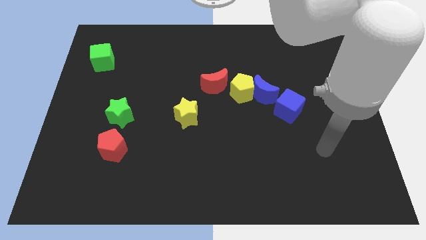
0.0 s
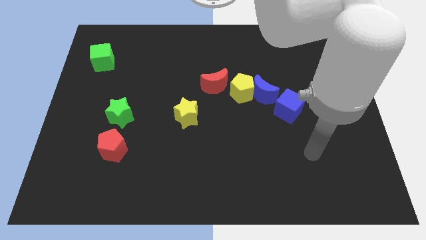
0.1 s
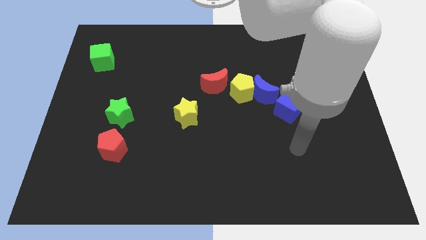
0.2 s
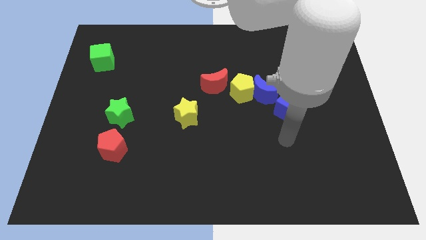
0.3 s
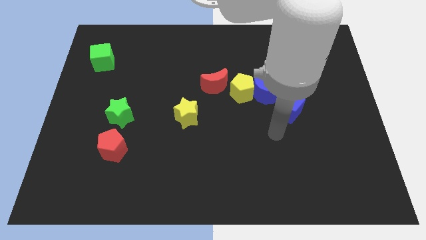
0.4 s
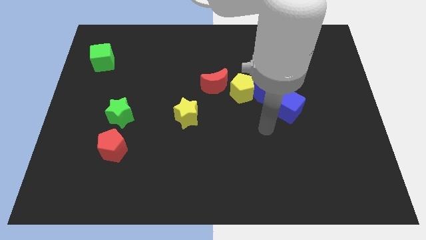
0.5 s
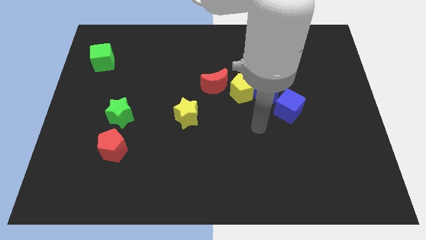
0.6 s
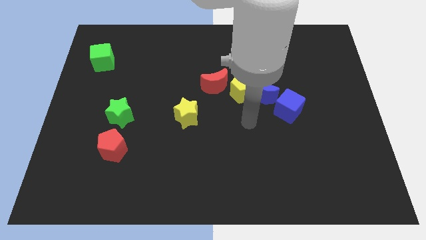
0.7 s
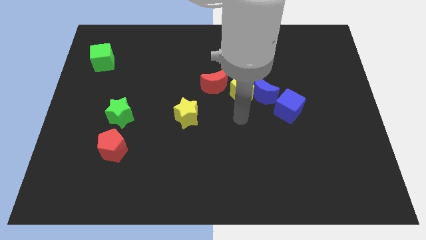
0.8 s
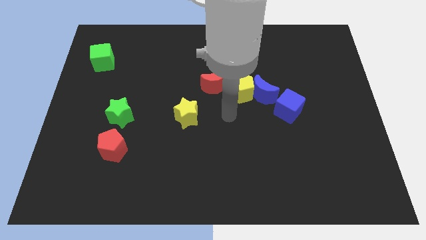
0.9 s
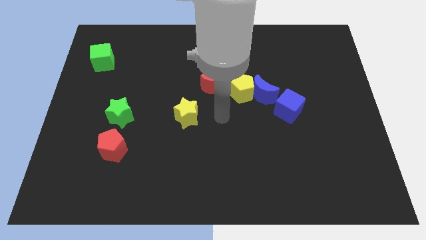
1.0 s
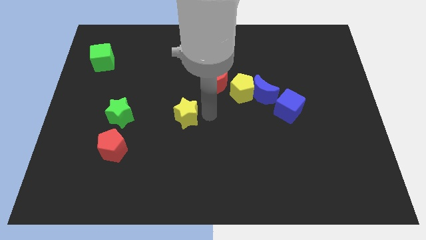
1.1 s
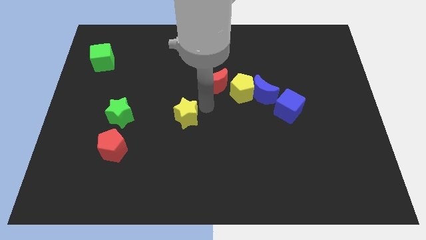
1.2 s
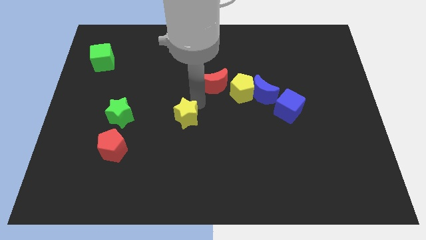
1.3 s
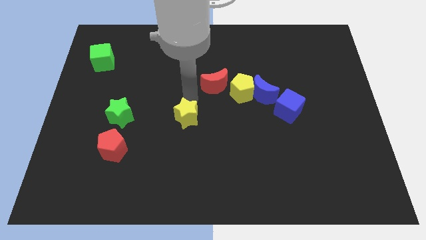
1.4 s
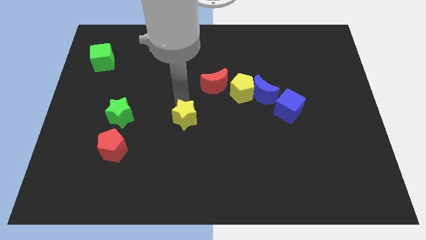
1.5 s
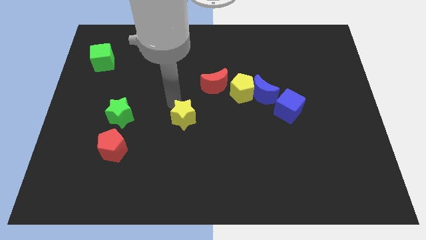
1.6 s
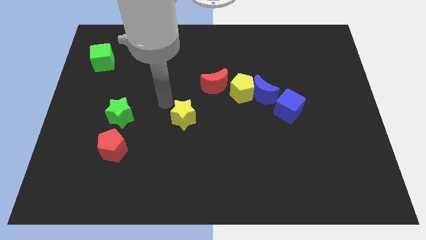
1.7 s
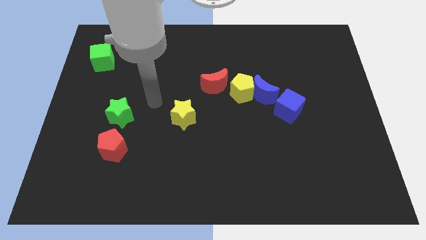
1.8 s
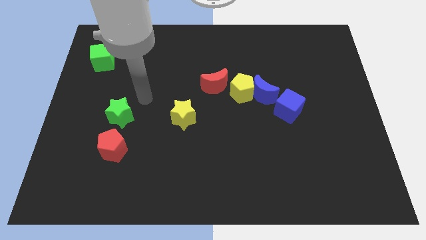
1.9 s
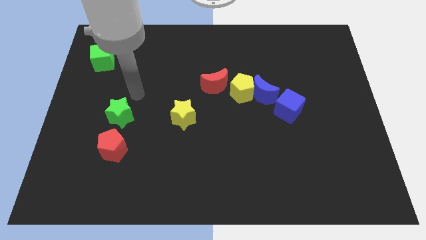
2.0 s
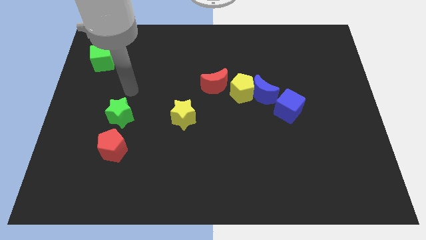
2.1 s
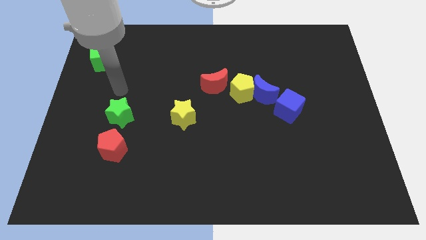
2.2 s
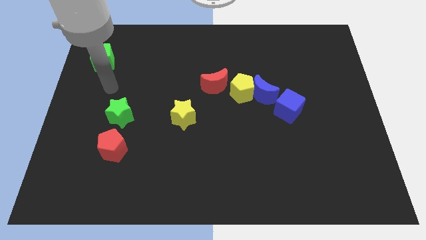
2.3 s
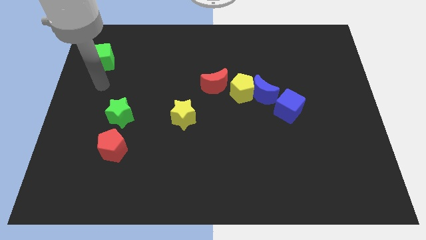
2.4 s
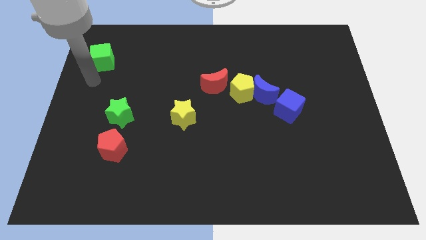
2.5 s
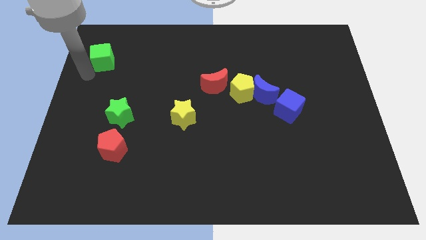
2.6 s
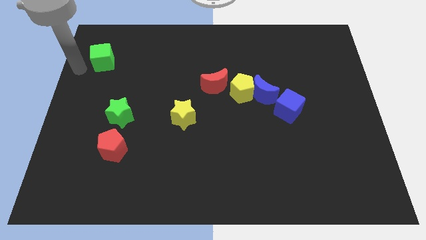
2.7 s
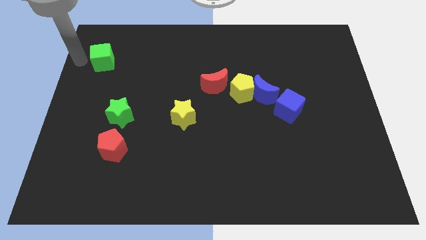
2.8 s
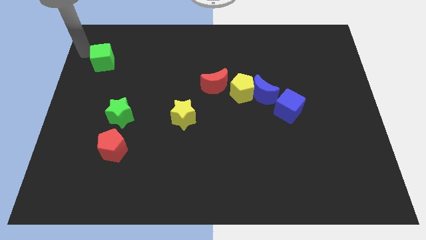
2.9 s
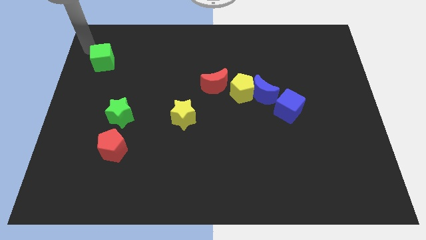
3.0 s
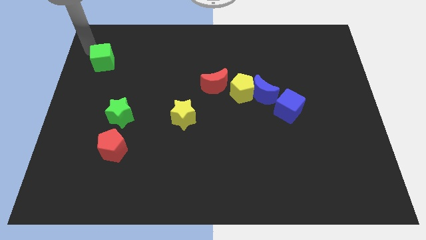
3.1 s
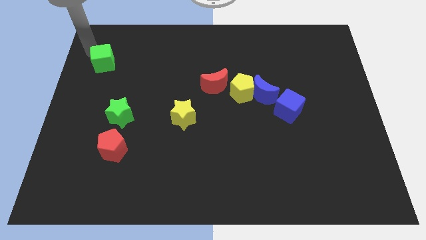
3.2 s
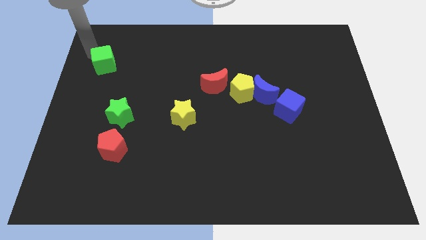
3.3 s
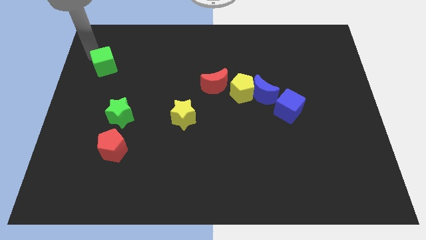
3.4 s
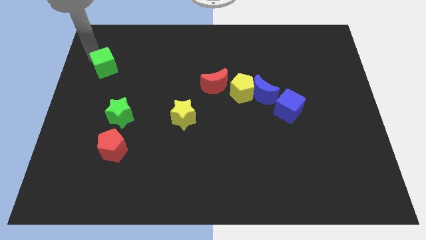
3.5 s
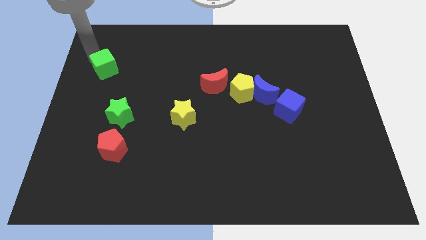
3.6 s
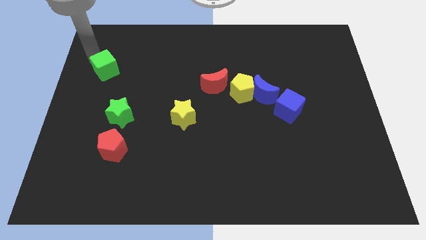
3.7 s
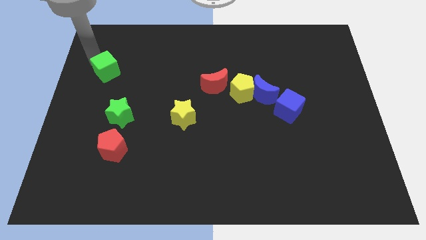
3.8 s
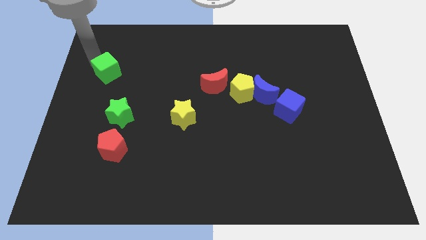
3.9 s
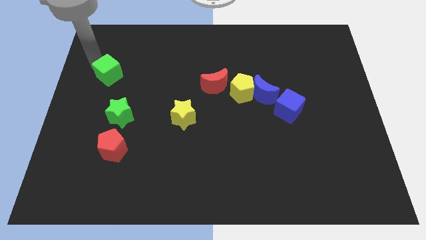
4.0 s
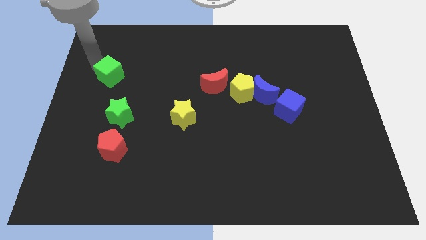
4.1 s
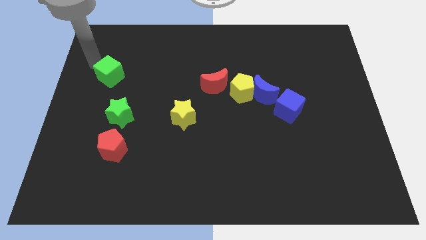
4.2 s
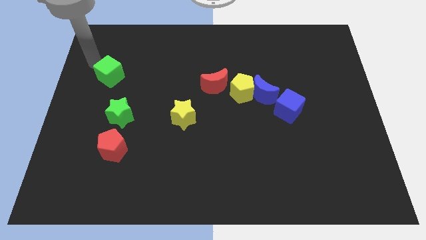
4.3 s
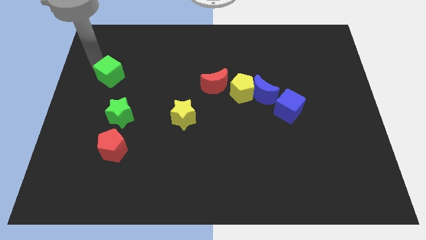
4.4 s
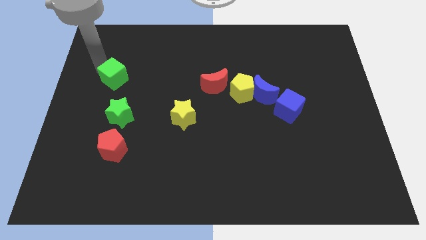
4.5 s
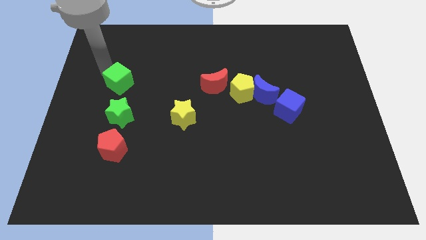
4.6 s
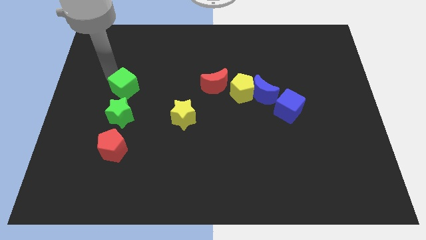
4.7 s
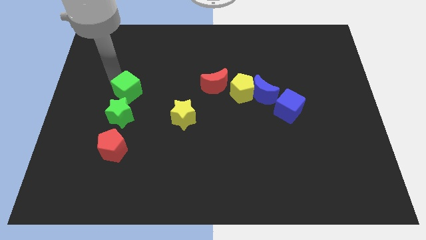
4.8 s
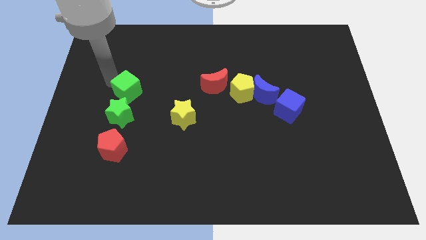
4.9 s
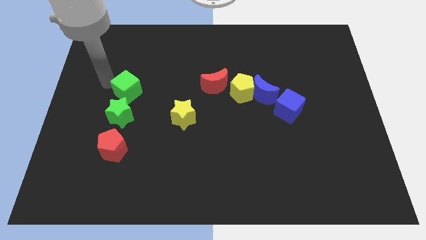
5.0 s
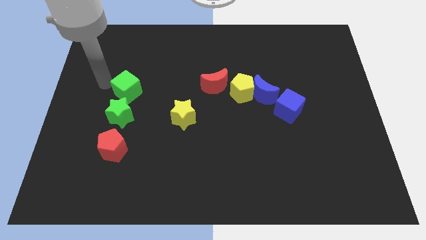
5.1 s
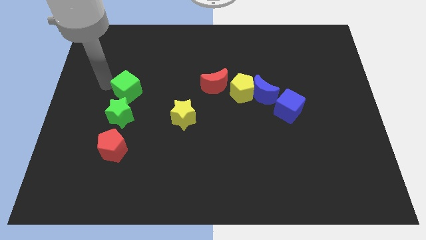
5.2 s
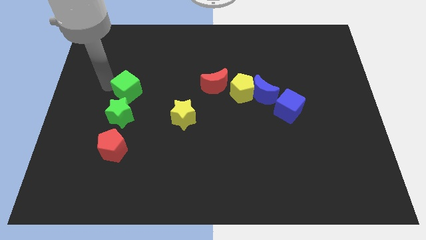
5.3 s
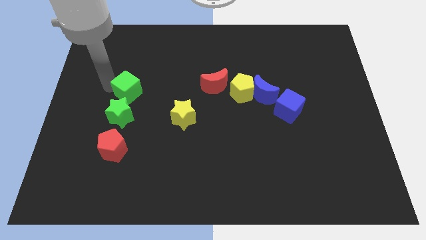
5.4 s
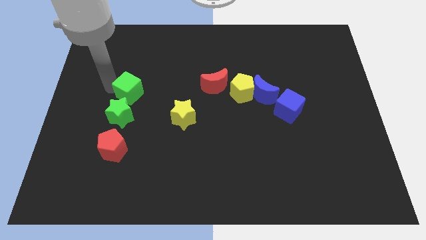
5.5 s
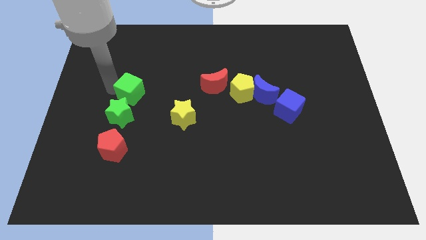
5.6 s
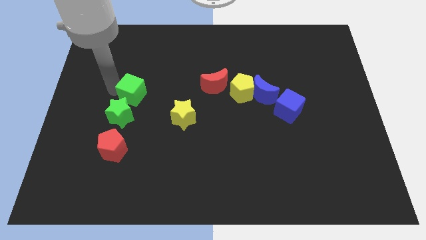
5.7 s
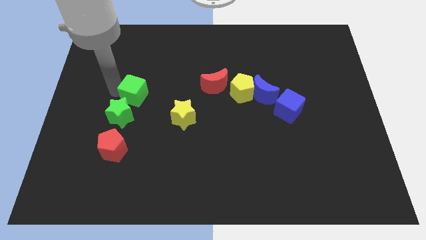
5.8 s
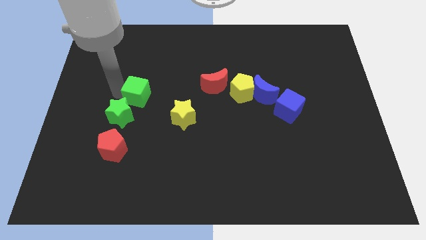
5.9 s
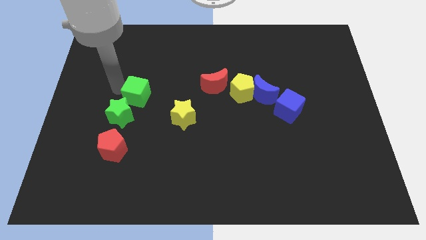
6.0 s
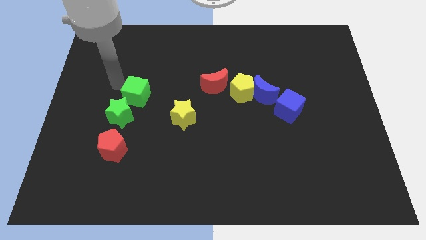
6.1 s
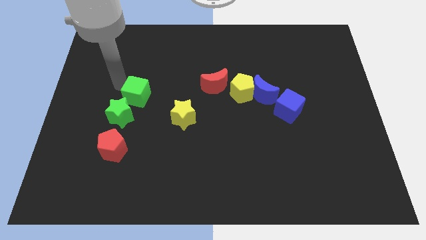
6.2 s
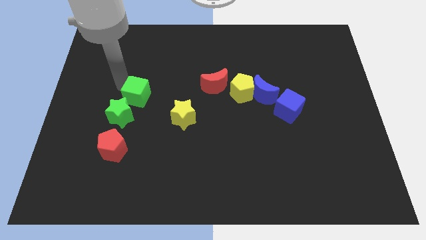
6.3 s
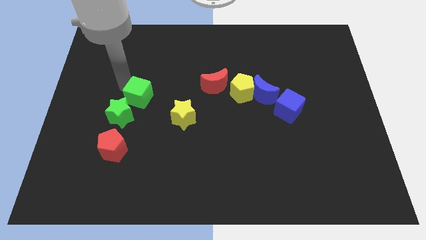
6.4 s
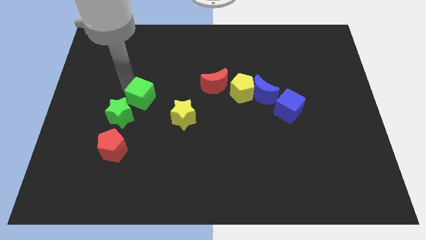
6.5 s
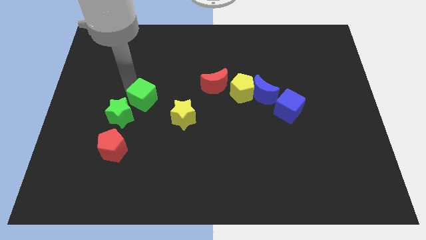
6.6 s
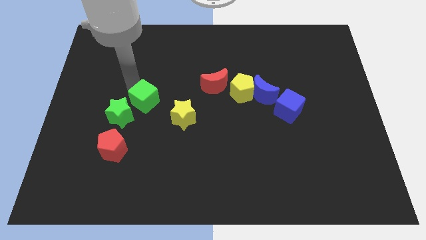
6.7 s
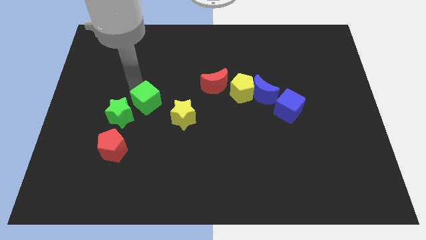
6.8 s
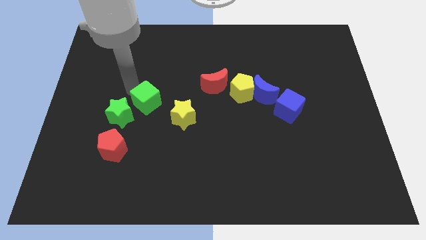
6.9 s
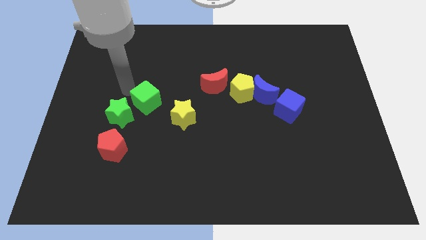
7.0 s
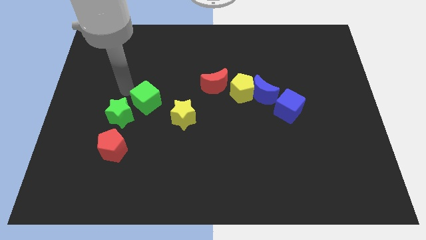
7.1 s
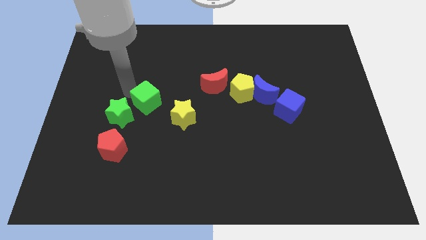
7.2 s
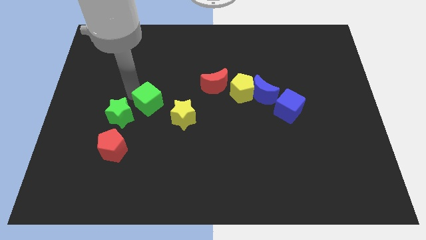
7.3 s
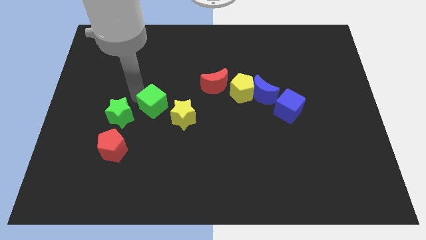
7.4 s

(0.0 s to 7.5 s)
slide the green cube diagonally downwards and to the right

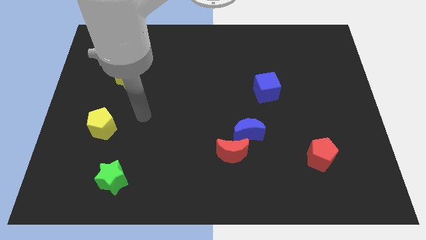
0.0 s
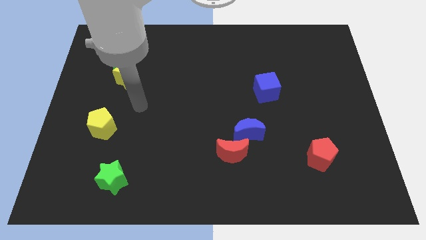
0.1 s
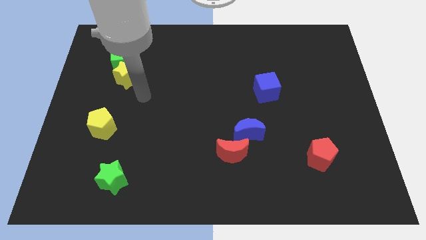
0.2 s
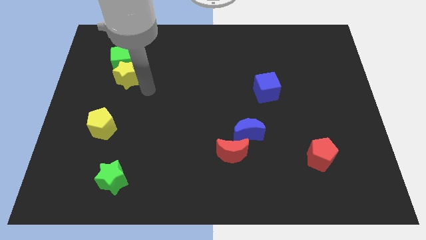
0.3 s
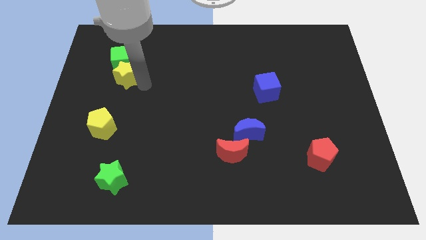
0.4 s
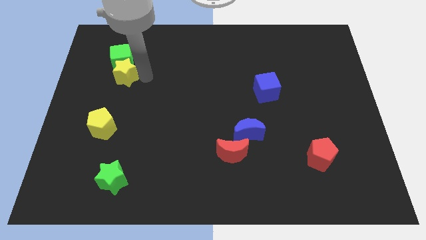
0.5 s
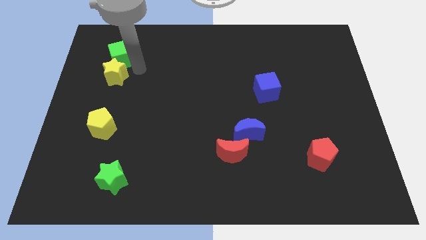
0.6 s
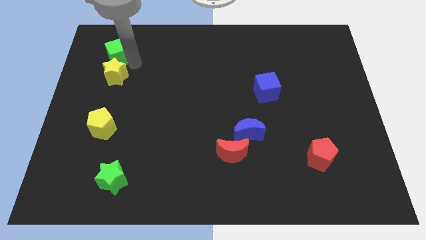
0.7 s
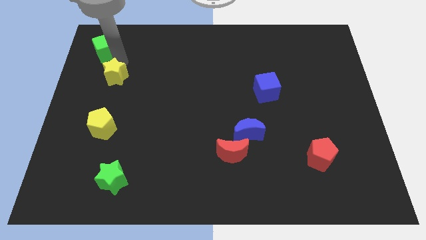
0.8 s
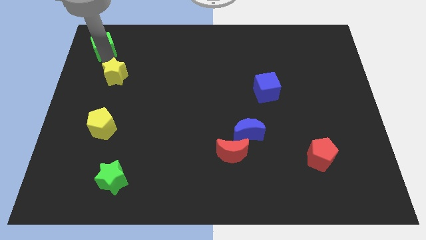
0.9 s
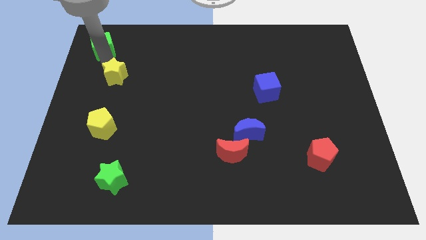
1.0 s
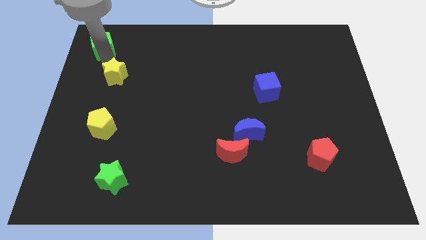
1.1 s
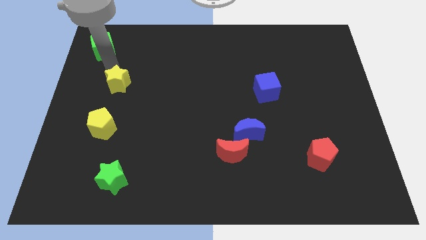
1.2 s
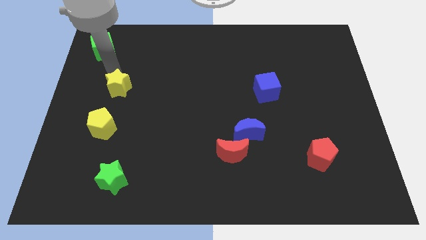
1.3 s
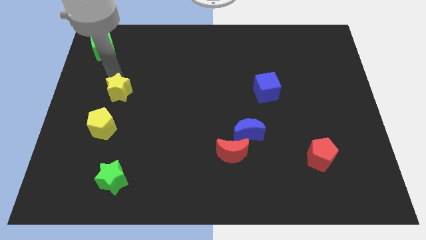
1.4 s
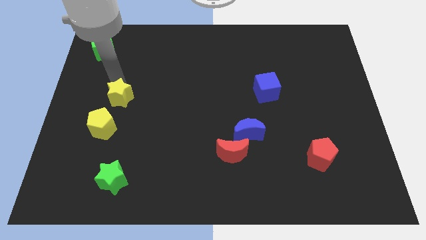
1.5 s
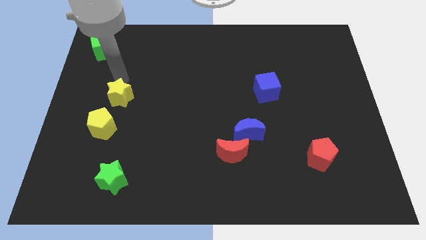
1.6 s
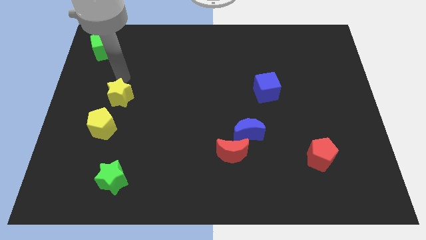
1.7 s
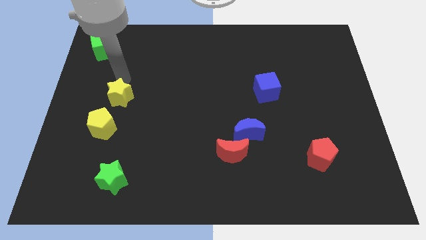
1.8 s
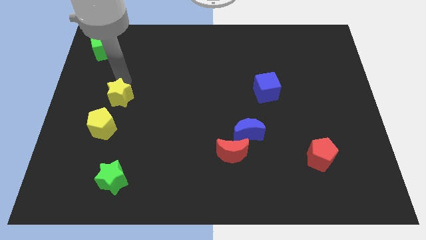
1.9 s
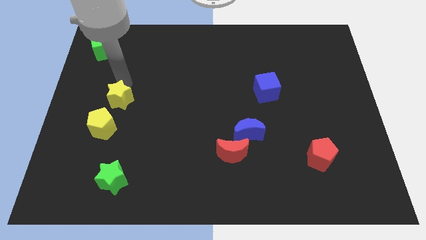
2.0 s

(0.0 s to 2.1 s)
slightly push the yellow star downwards
